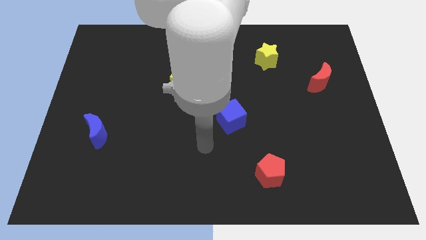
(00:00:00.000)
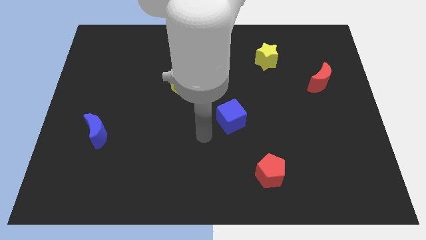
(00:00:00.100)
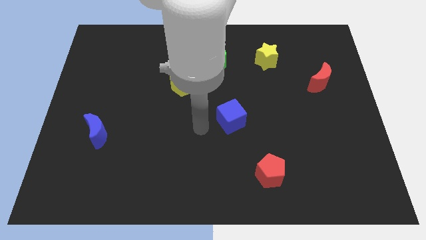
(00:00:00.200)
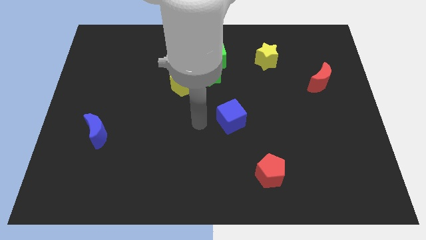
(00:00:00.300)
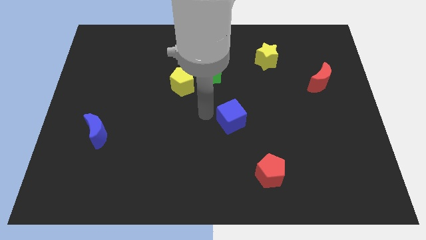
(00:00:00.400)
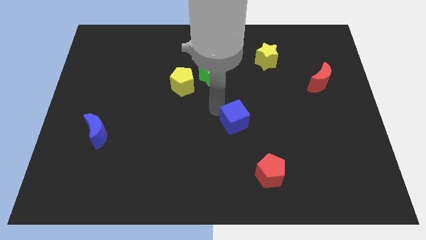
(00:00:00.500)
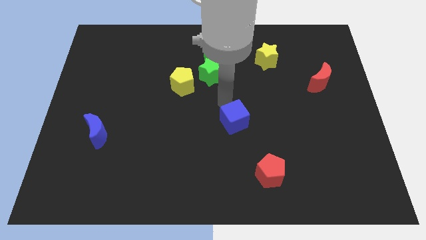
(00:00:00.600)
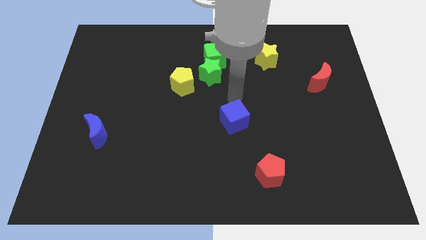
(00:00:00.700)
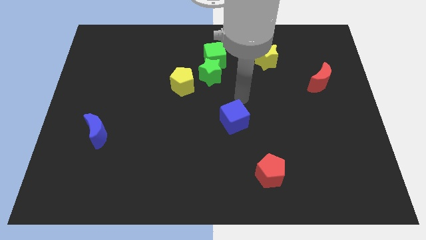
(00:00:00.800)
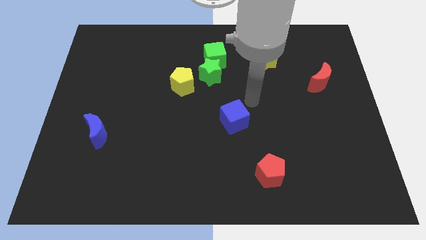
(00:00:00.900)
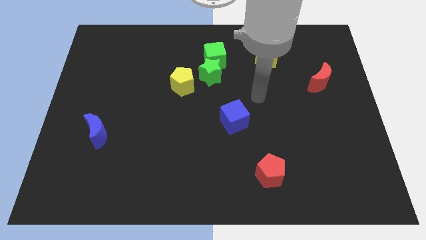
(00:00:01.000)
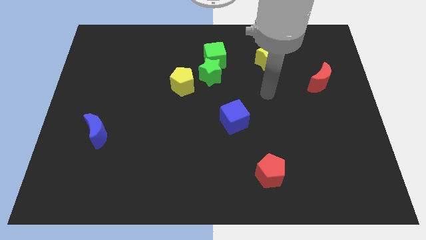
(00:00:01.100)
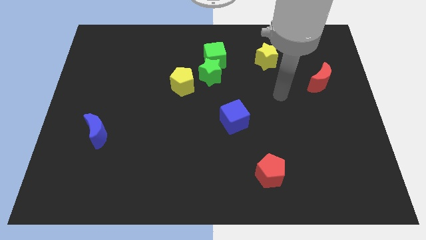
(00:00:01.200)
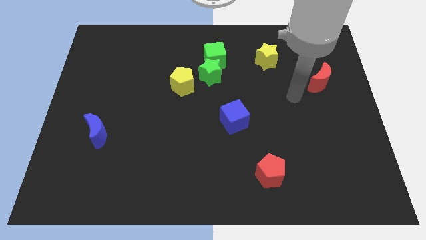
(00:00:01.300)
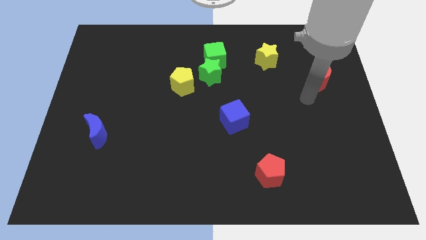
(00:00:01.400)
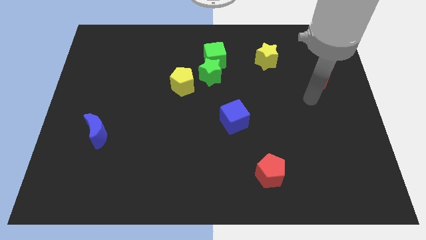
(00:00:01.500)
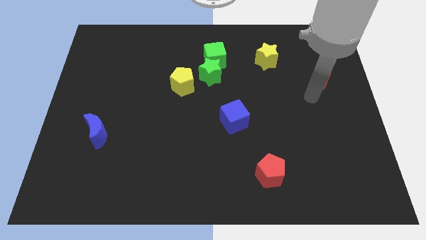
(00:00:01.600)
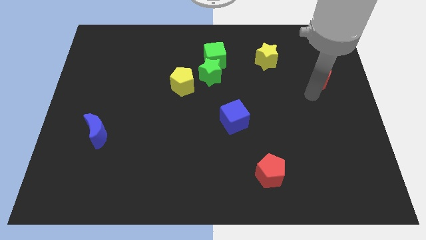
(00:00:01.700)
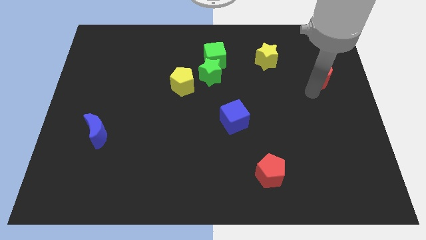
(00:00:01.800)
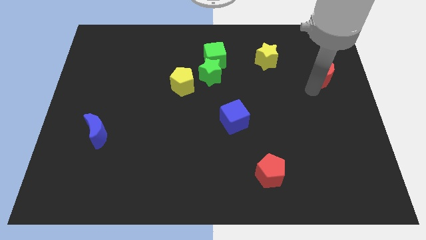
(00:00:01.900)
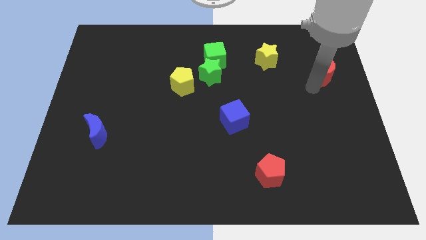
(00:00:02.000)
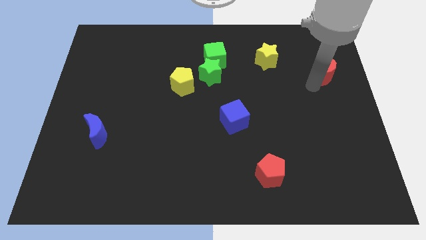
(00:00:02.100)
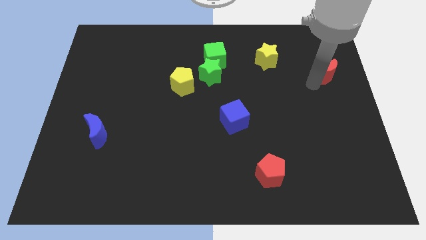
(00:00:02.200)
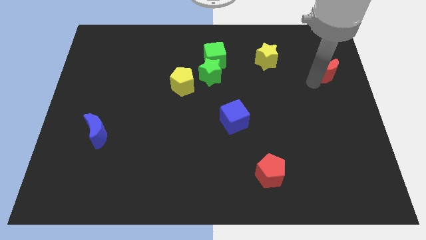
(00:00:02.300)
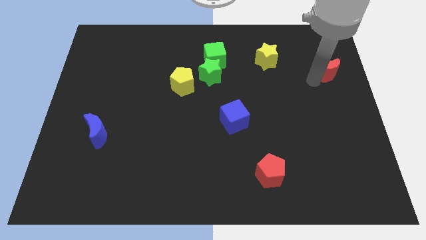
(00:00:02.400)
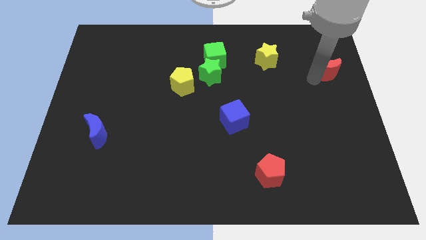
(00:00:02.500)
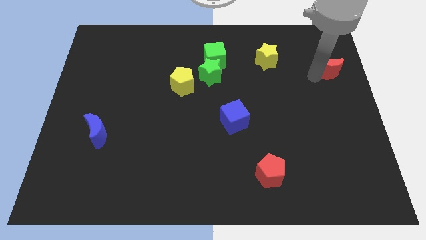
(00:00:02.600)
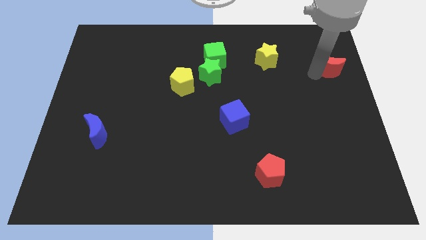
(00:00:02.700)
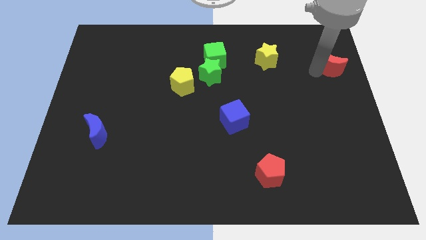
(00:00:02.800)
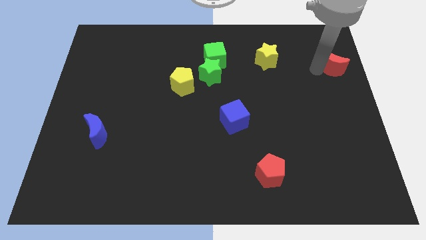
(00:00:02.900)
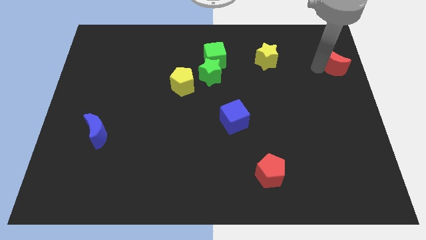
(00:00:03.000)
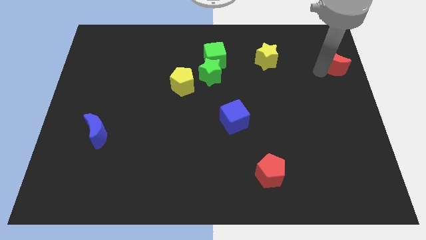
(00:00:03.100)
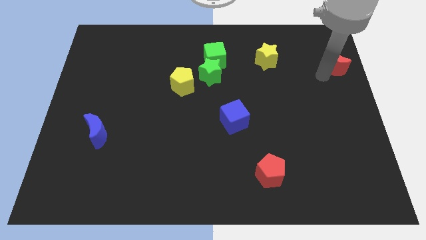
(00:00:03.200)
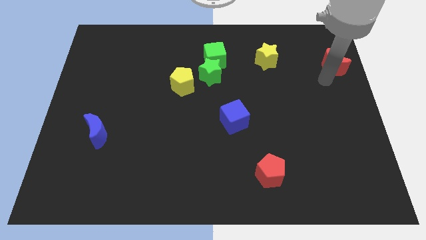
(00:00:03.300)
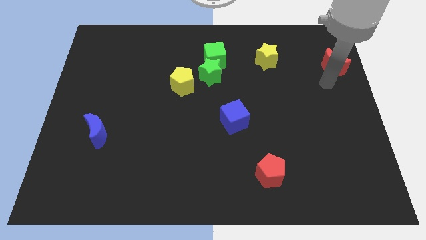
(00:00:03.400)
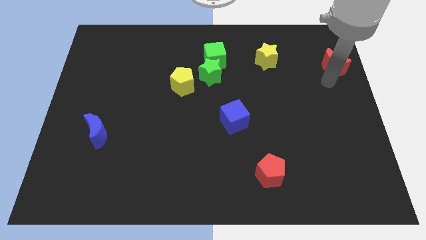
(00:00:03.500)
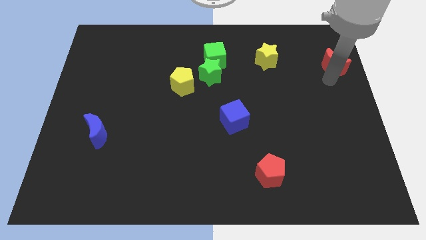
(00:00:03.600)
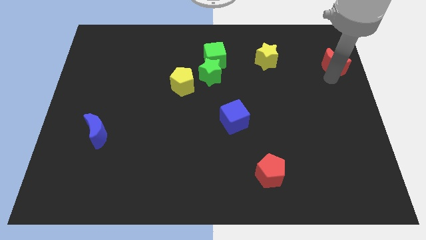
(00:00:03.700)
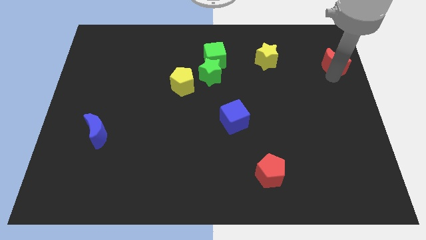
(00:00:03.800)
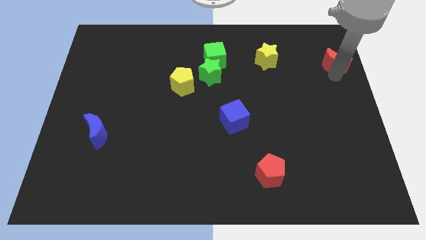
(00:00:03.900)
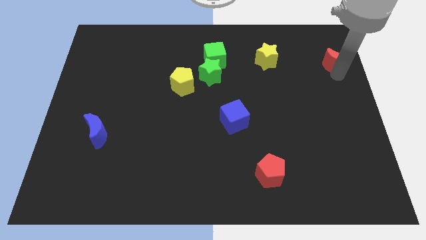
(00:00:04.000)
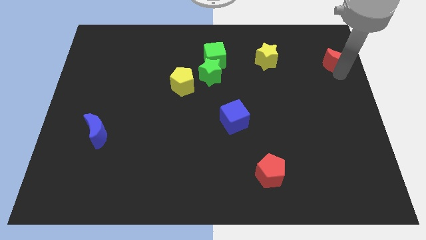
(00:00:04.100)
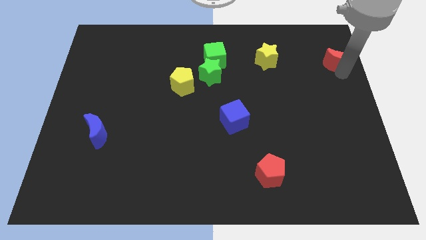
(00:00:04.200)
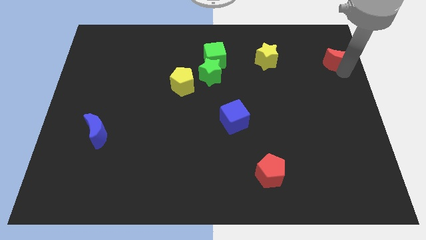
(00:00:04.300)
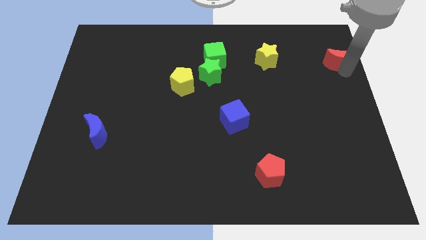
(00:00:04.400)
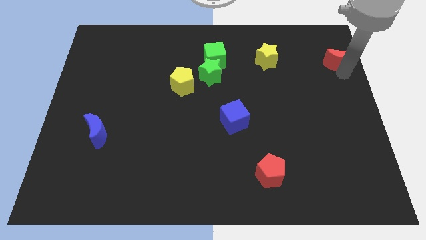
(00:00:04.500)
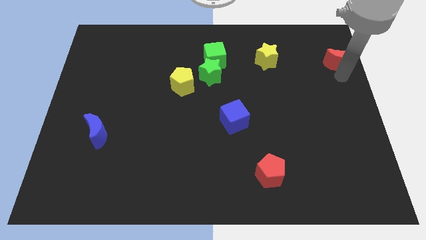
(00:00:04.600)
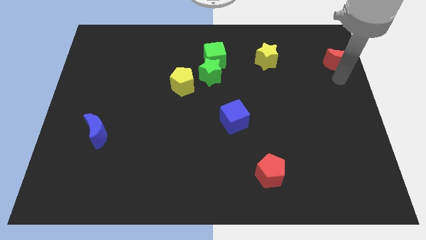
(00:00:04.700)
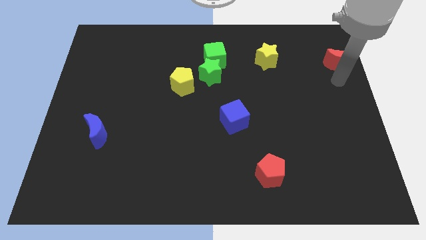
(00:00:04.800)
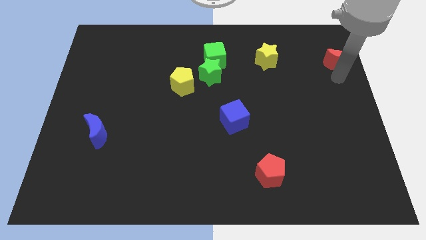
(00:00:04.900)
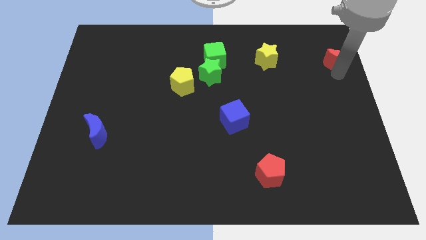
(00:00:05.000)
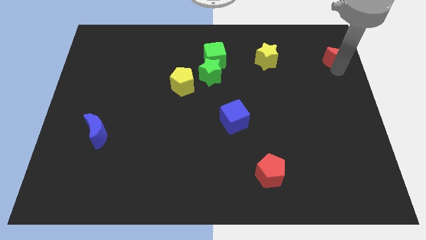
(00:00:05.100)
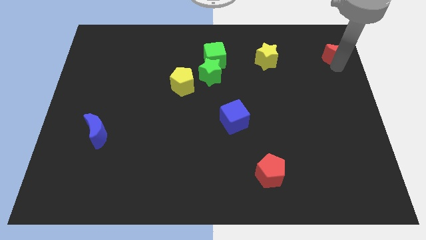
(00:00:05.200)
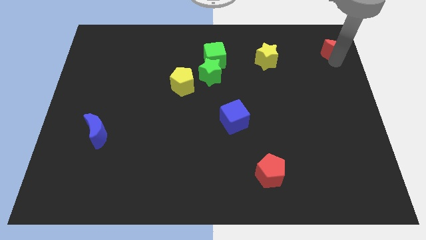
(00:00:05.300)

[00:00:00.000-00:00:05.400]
push the red moon to the top right of the board

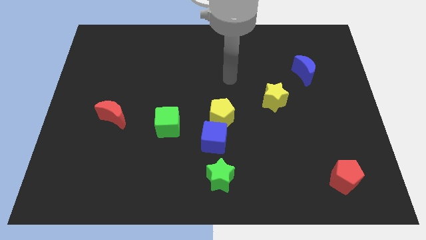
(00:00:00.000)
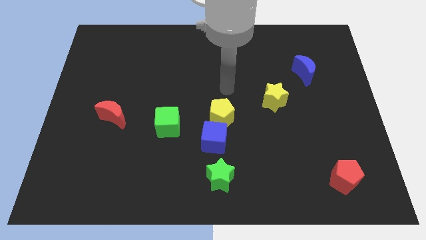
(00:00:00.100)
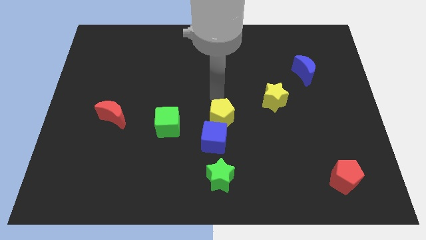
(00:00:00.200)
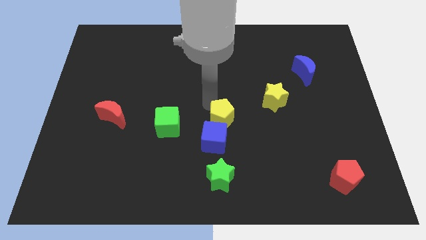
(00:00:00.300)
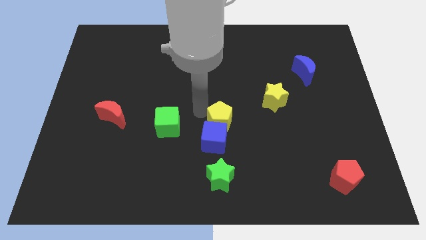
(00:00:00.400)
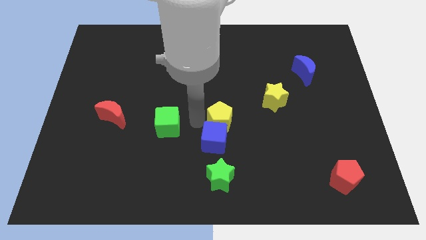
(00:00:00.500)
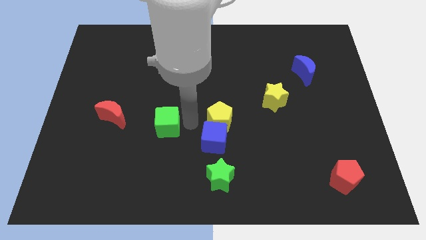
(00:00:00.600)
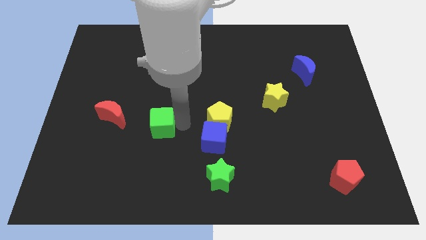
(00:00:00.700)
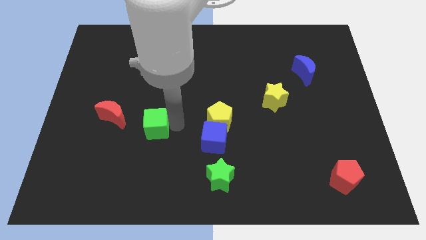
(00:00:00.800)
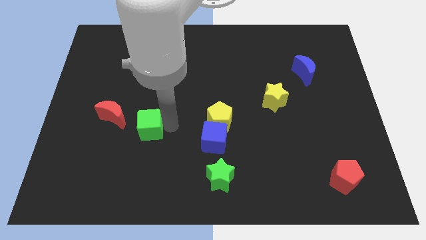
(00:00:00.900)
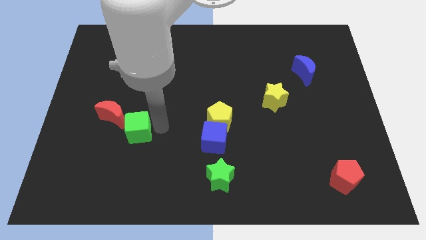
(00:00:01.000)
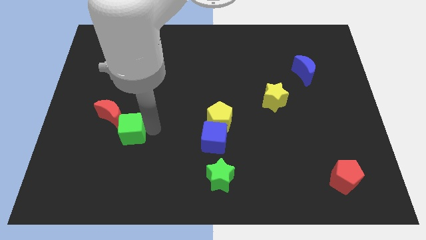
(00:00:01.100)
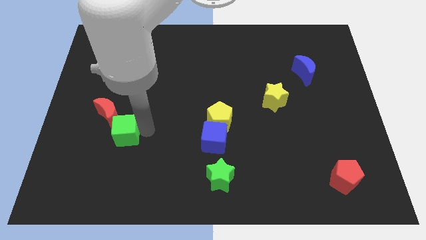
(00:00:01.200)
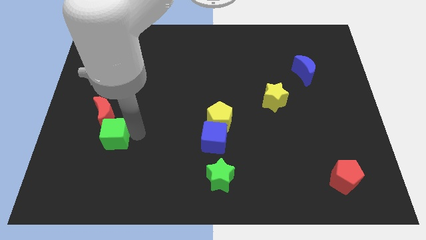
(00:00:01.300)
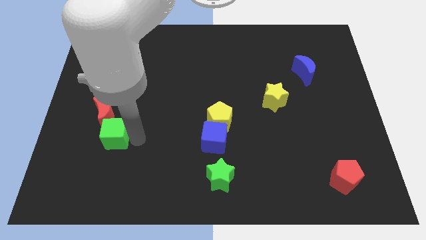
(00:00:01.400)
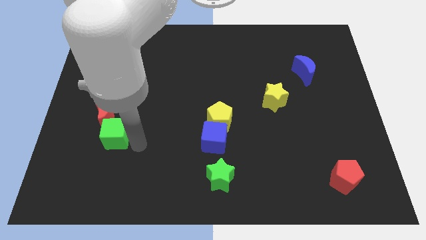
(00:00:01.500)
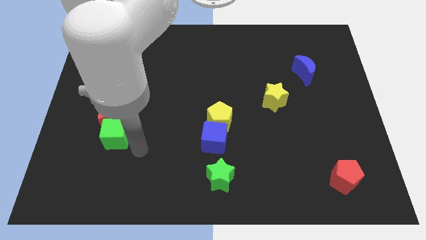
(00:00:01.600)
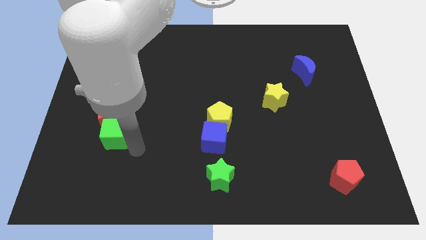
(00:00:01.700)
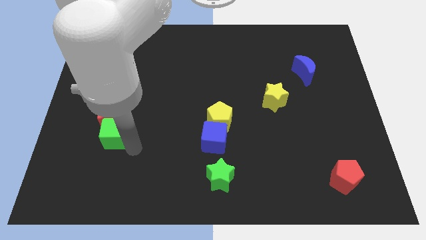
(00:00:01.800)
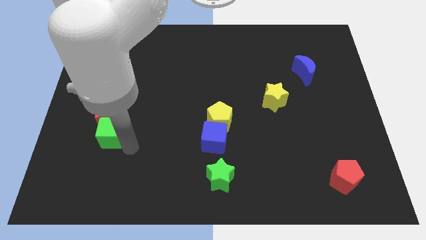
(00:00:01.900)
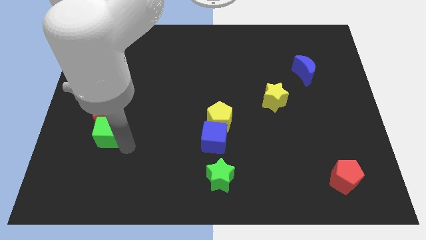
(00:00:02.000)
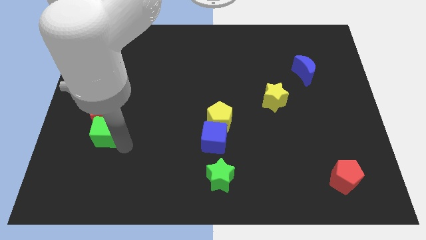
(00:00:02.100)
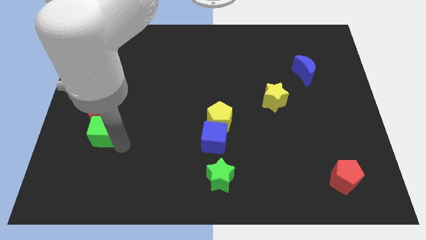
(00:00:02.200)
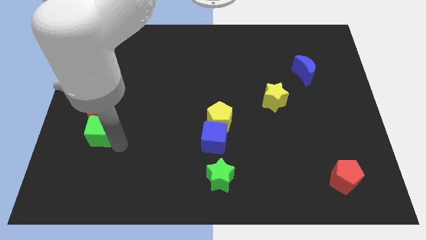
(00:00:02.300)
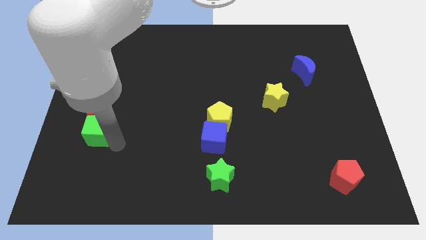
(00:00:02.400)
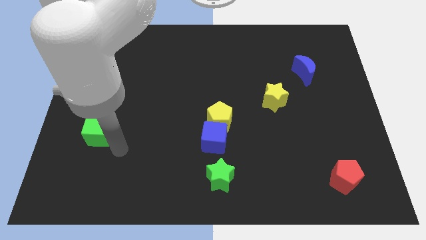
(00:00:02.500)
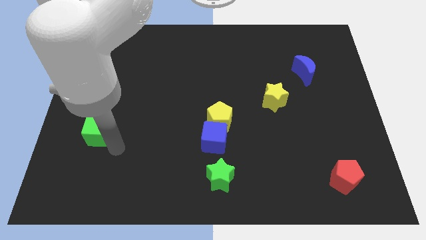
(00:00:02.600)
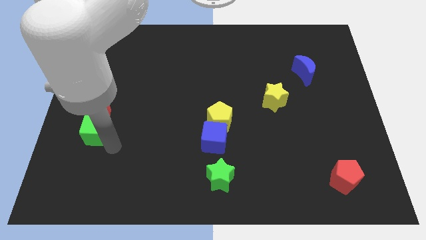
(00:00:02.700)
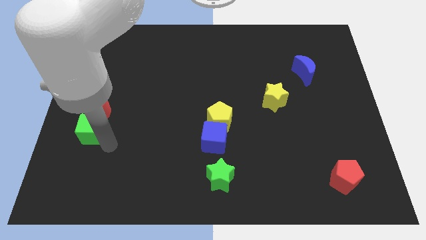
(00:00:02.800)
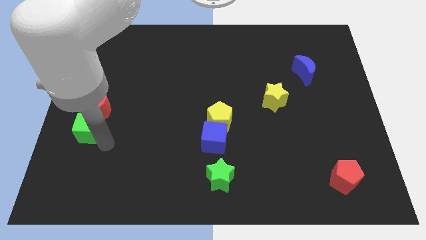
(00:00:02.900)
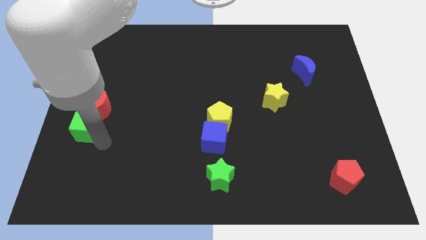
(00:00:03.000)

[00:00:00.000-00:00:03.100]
put the green cube to the left side
